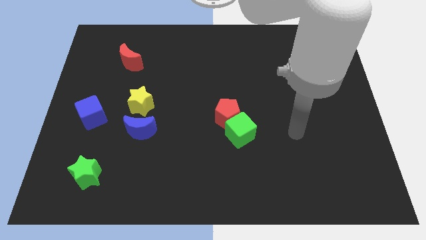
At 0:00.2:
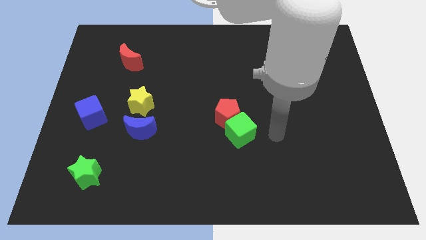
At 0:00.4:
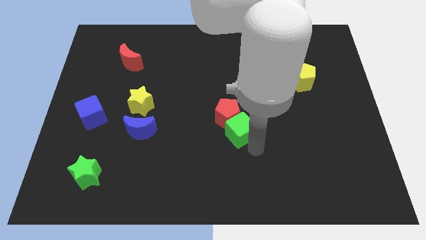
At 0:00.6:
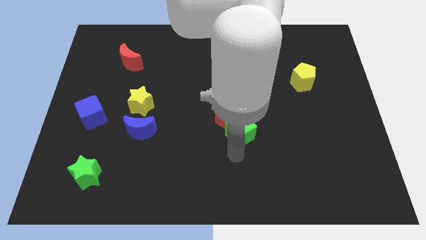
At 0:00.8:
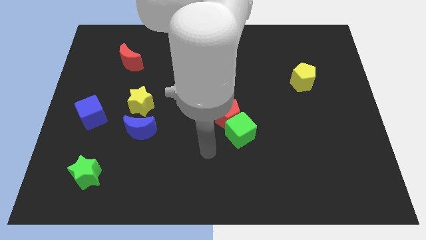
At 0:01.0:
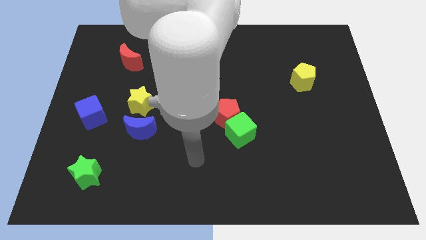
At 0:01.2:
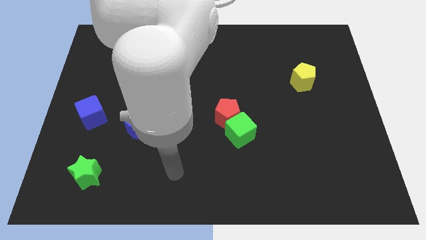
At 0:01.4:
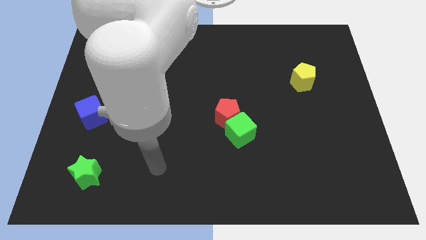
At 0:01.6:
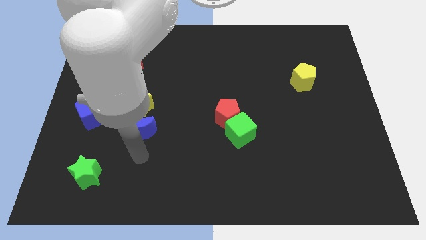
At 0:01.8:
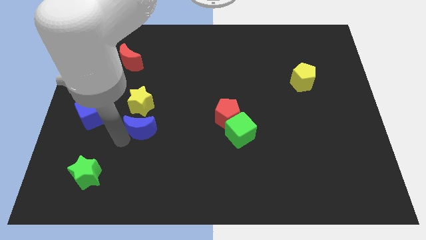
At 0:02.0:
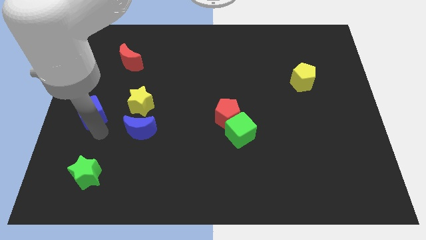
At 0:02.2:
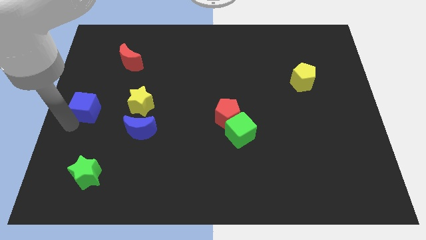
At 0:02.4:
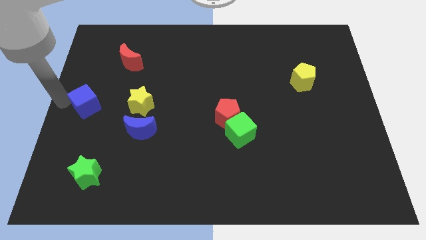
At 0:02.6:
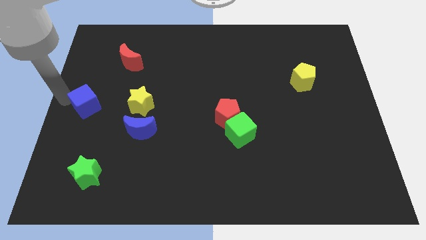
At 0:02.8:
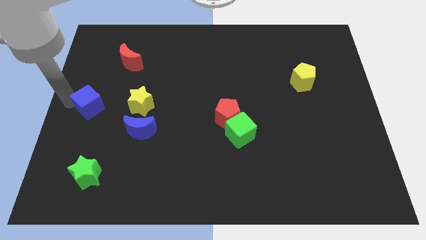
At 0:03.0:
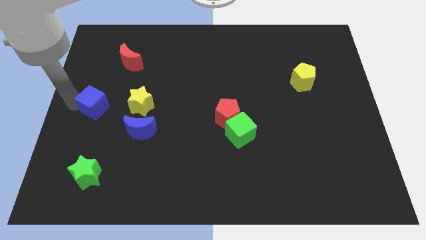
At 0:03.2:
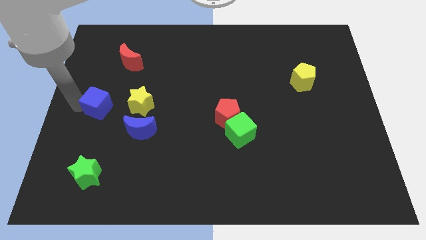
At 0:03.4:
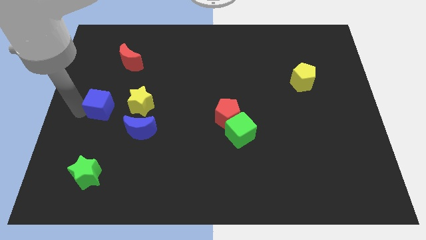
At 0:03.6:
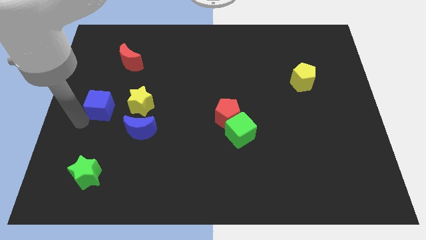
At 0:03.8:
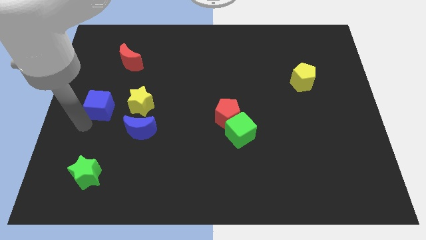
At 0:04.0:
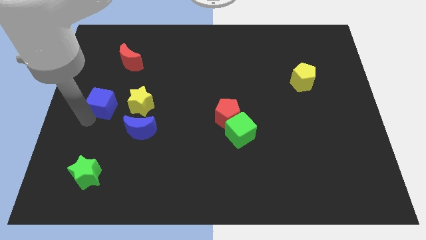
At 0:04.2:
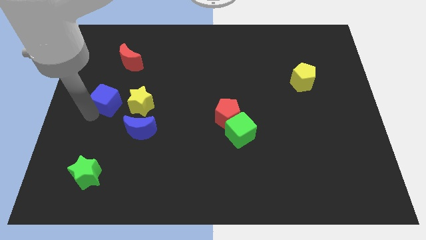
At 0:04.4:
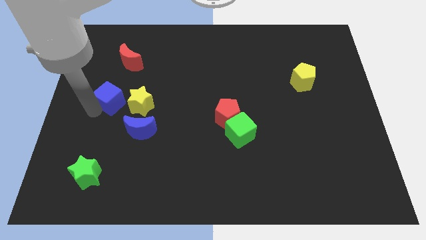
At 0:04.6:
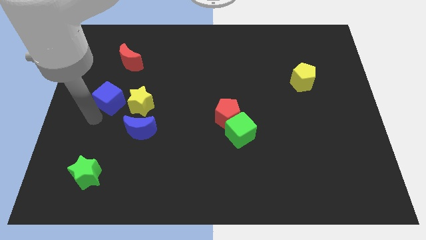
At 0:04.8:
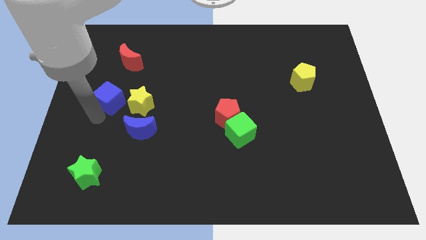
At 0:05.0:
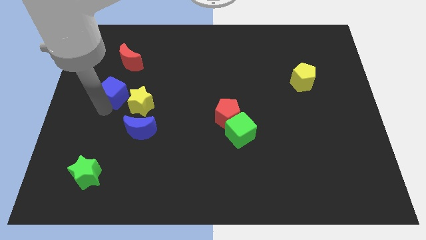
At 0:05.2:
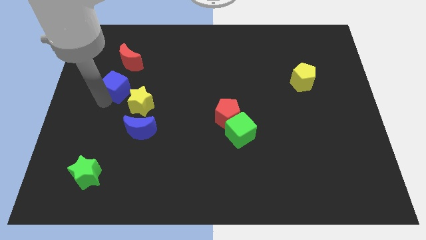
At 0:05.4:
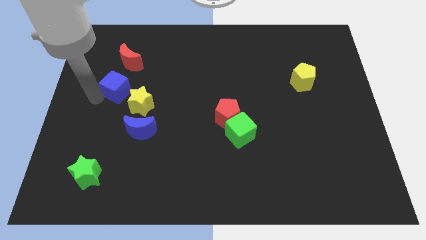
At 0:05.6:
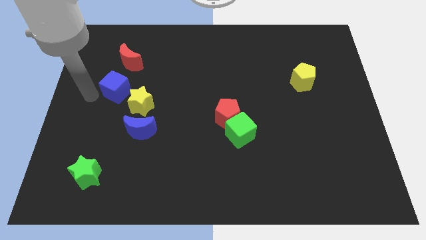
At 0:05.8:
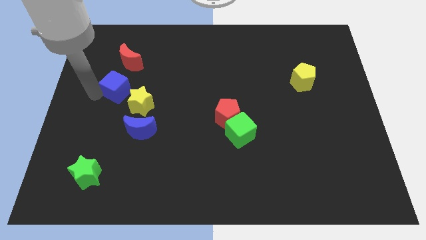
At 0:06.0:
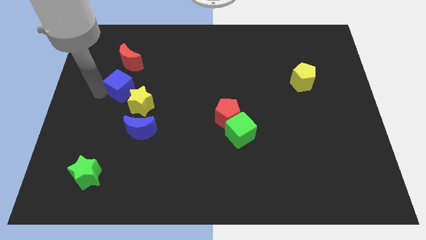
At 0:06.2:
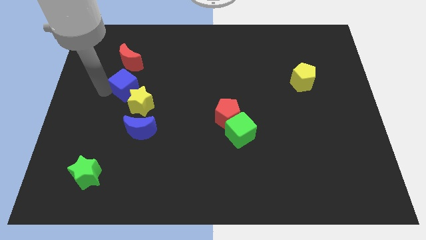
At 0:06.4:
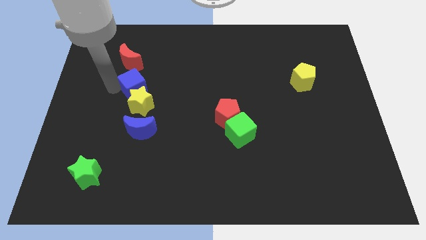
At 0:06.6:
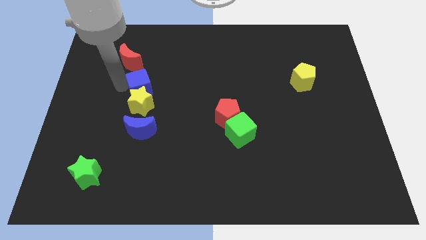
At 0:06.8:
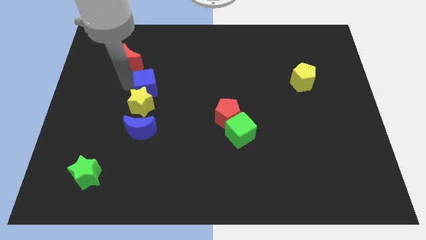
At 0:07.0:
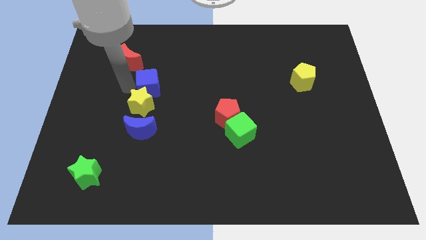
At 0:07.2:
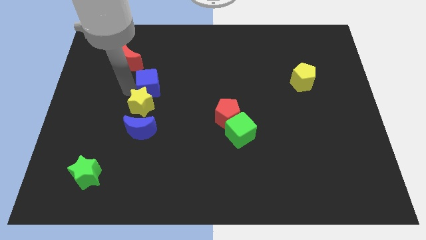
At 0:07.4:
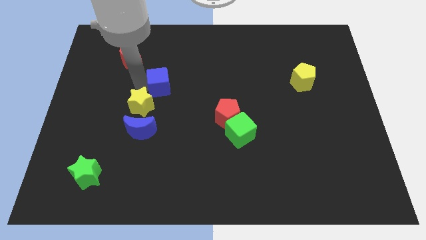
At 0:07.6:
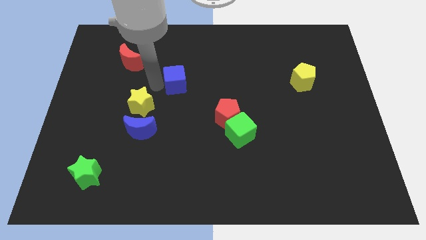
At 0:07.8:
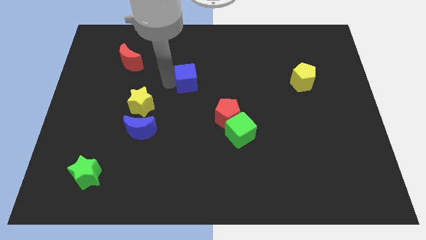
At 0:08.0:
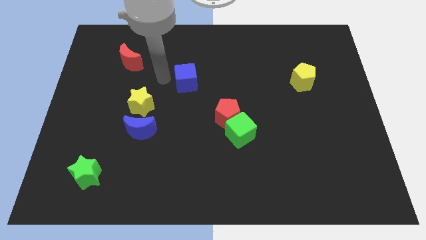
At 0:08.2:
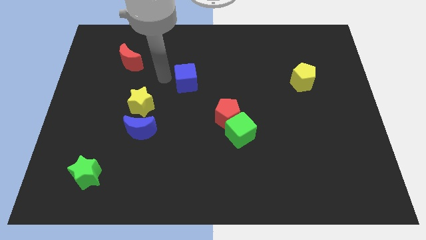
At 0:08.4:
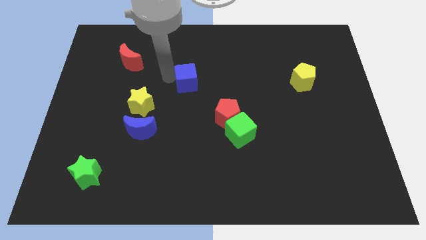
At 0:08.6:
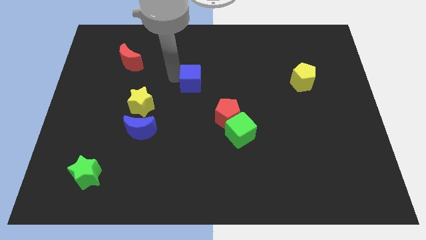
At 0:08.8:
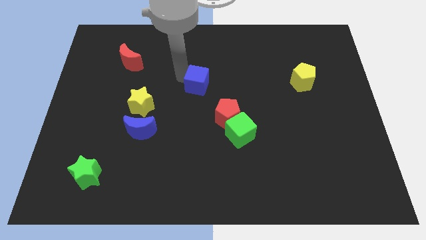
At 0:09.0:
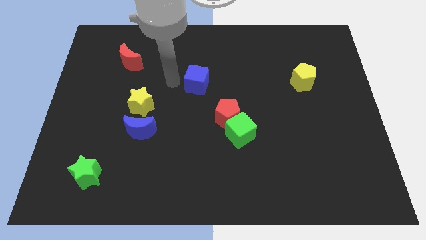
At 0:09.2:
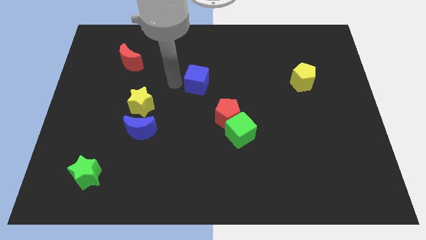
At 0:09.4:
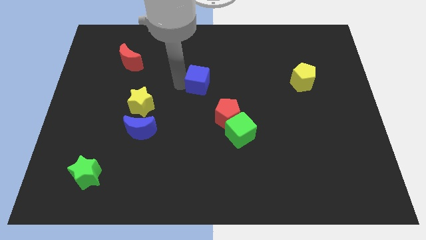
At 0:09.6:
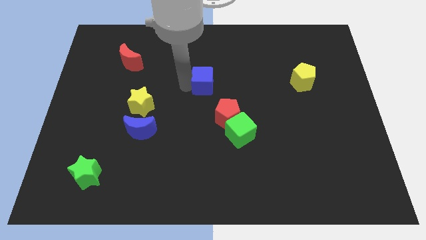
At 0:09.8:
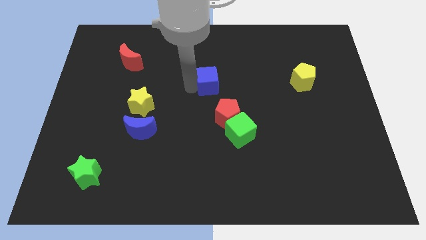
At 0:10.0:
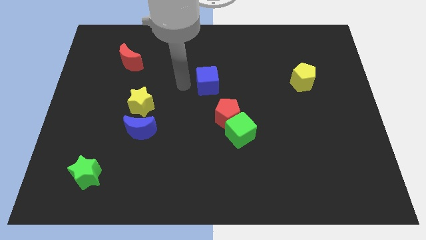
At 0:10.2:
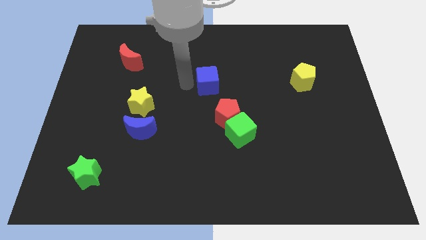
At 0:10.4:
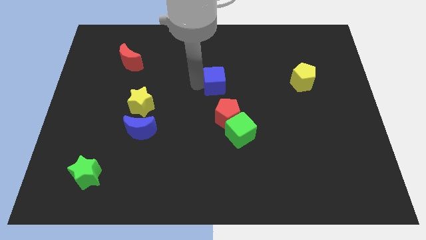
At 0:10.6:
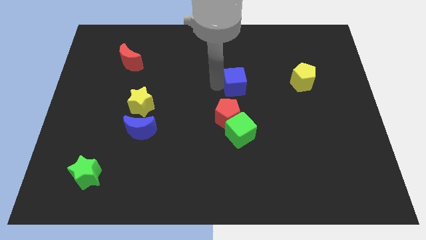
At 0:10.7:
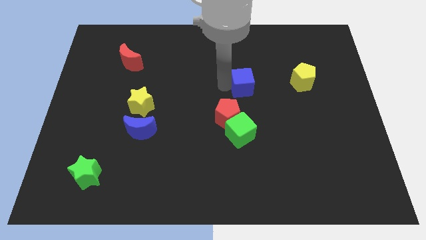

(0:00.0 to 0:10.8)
push the blue cube to the left side of the yellow pentagon

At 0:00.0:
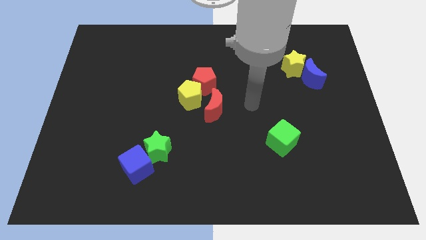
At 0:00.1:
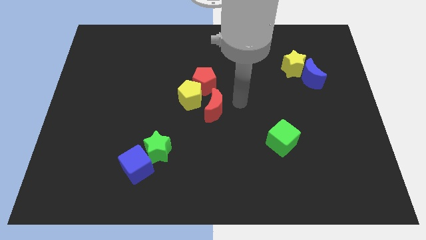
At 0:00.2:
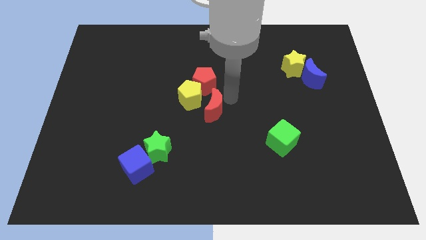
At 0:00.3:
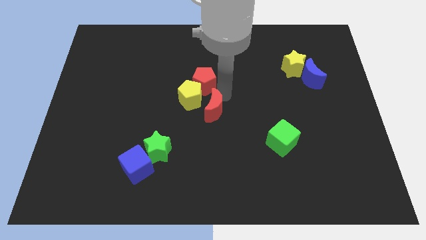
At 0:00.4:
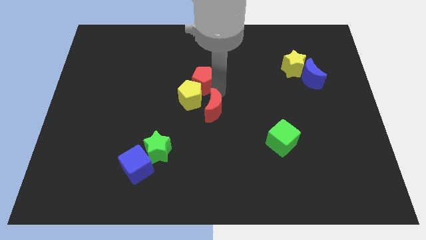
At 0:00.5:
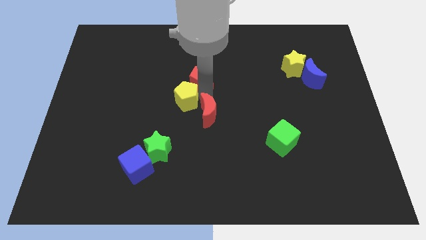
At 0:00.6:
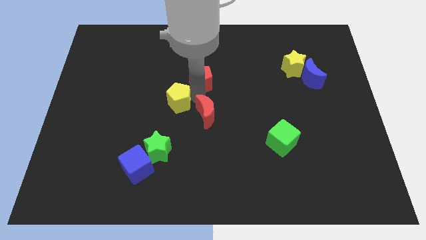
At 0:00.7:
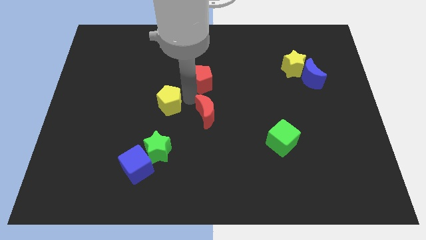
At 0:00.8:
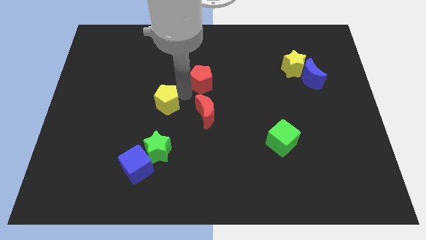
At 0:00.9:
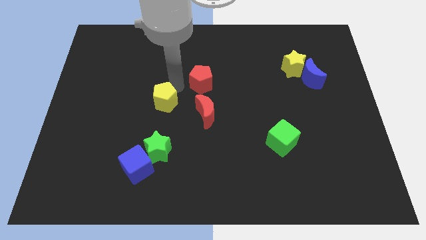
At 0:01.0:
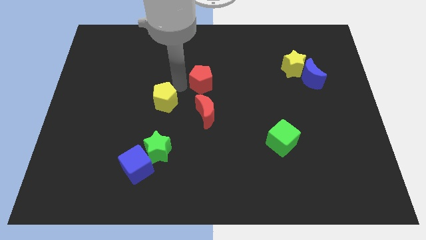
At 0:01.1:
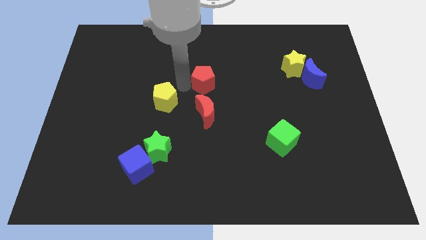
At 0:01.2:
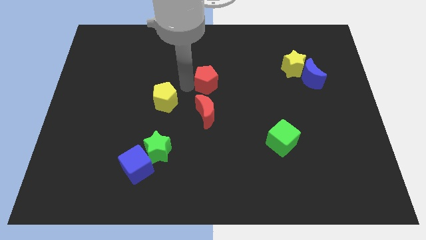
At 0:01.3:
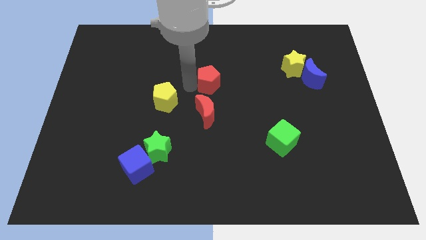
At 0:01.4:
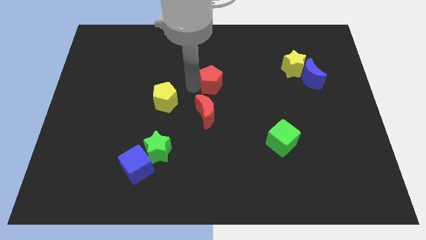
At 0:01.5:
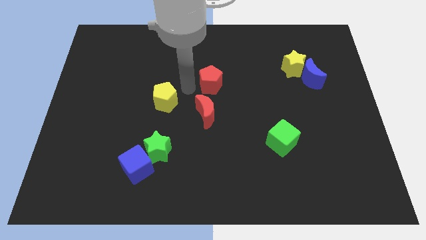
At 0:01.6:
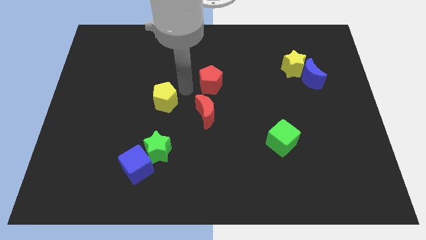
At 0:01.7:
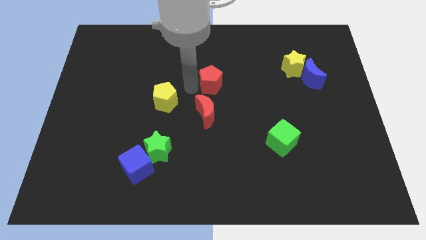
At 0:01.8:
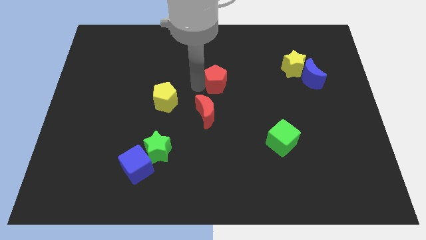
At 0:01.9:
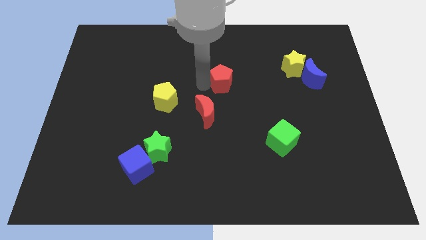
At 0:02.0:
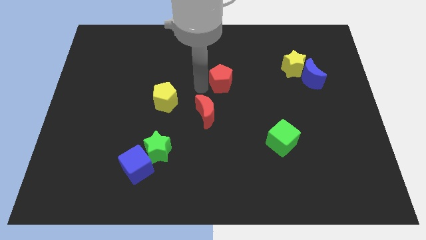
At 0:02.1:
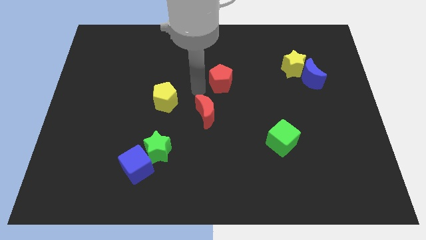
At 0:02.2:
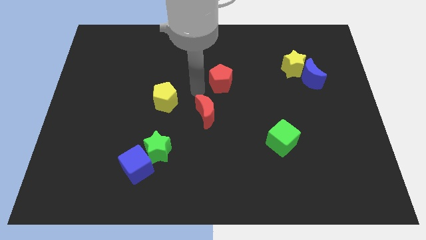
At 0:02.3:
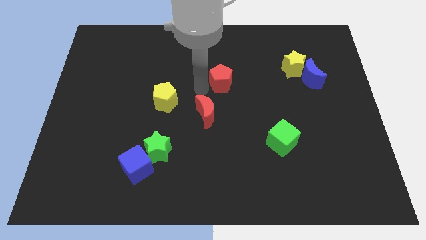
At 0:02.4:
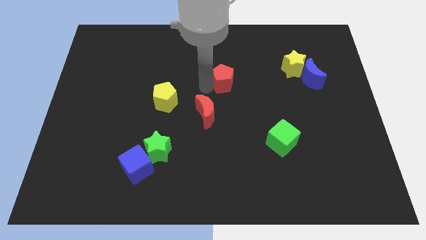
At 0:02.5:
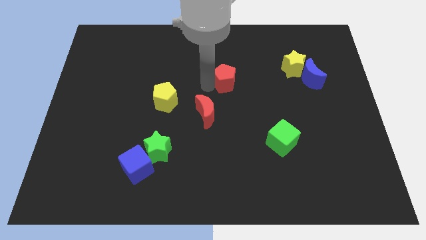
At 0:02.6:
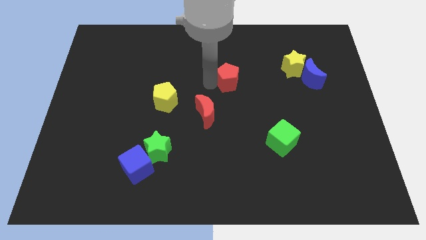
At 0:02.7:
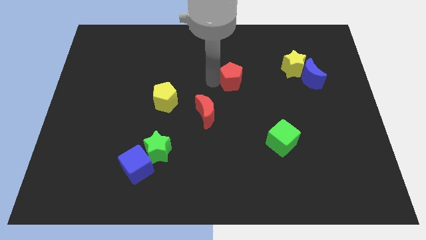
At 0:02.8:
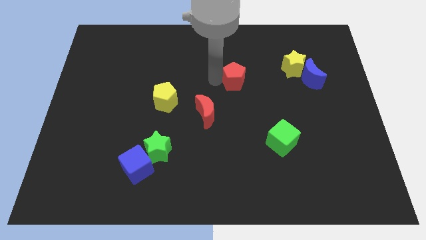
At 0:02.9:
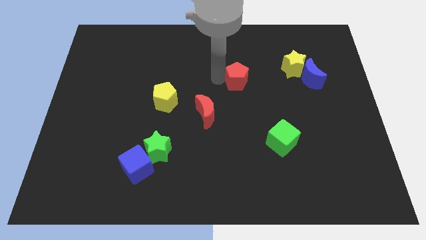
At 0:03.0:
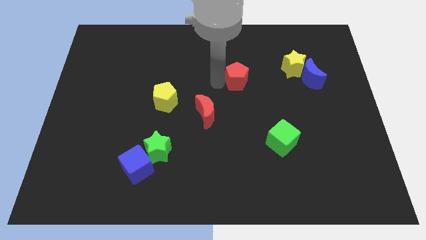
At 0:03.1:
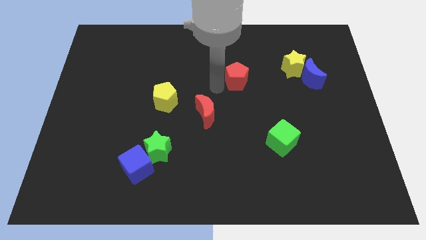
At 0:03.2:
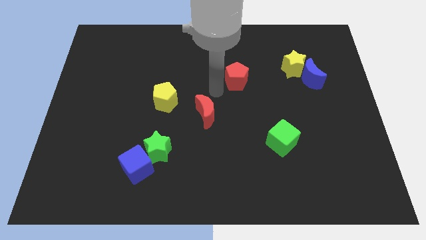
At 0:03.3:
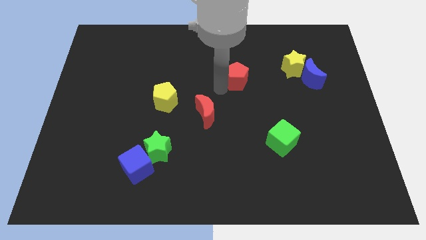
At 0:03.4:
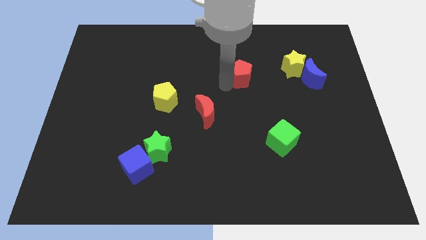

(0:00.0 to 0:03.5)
put the red pentagon left of the yellow star
